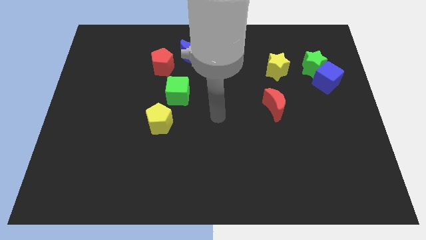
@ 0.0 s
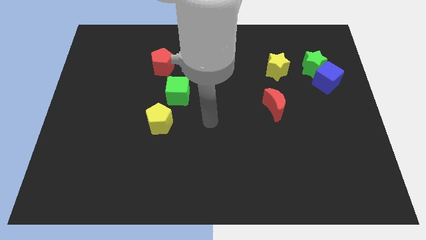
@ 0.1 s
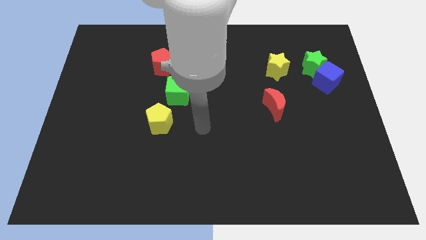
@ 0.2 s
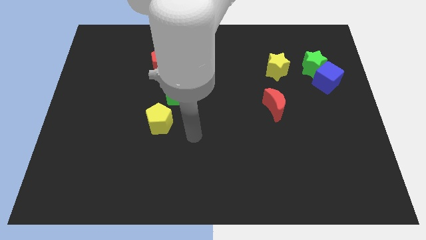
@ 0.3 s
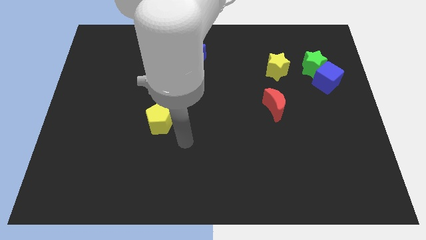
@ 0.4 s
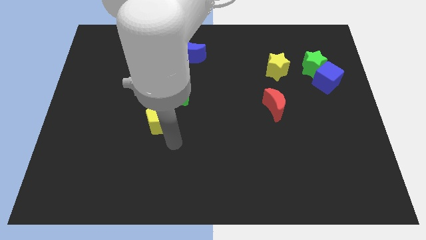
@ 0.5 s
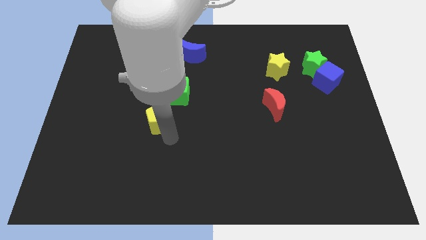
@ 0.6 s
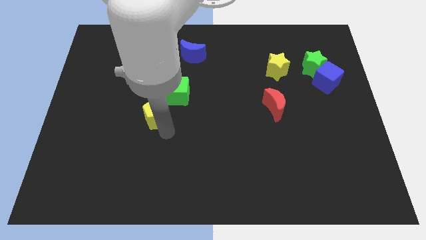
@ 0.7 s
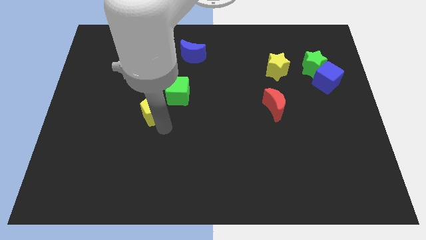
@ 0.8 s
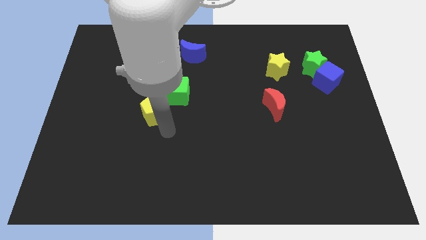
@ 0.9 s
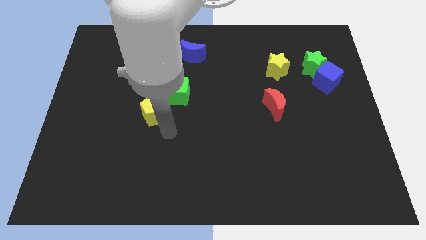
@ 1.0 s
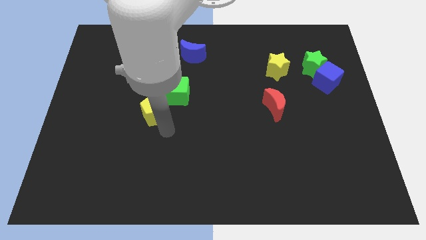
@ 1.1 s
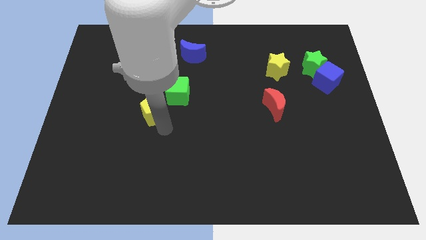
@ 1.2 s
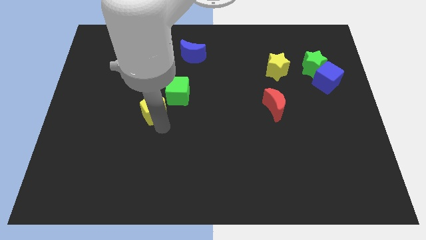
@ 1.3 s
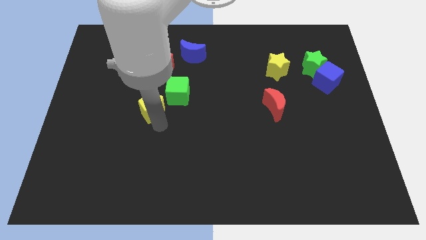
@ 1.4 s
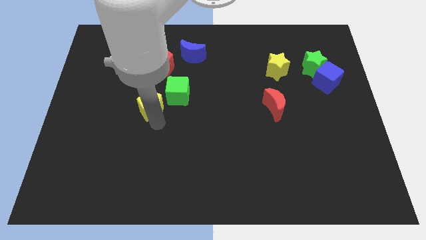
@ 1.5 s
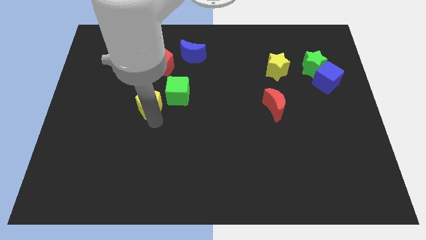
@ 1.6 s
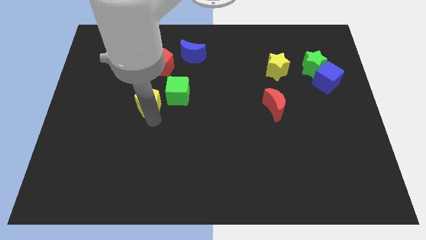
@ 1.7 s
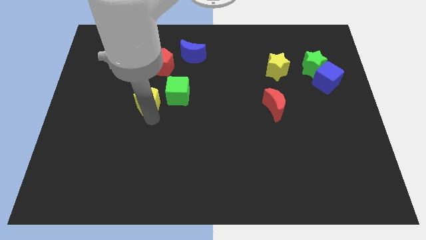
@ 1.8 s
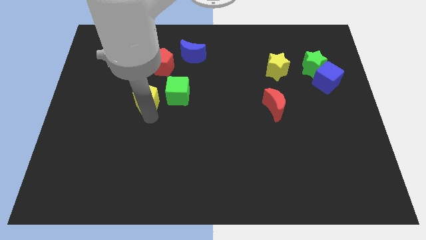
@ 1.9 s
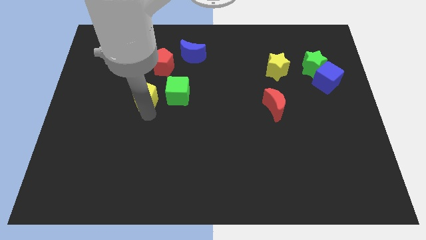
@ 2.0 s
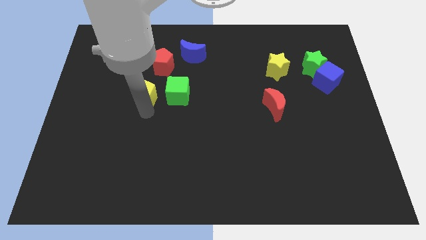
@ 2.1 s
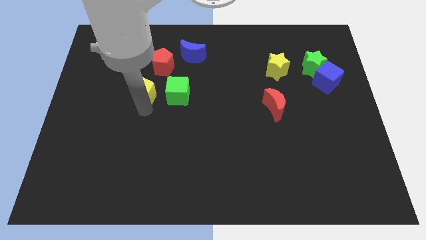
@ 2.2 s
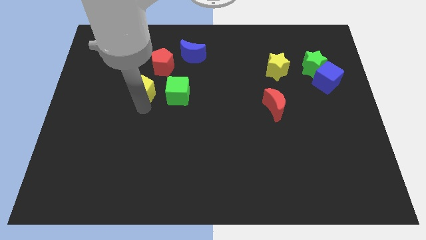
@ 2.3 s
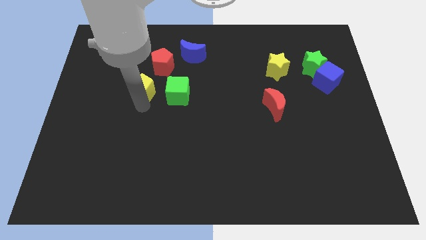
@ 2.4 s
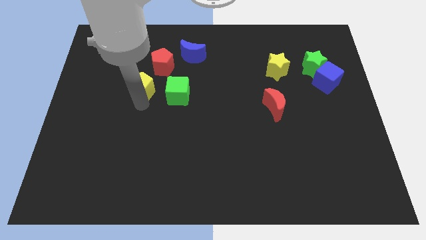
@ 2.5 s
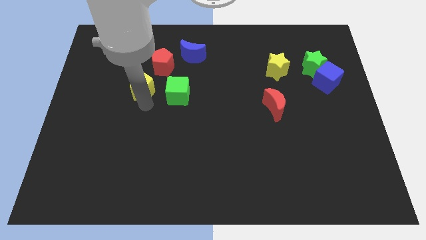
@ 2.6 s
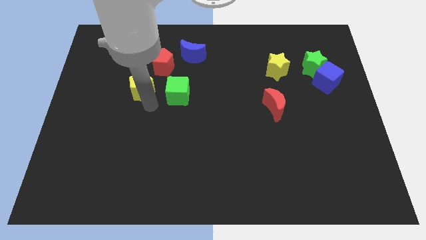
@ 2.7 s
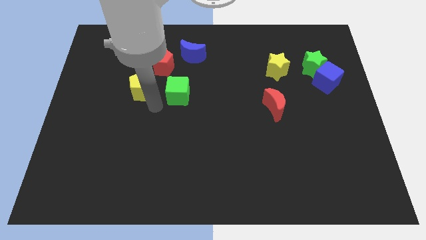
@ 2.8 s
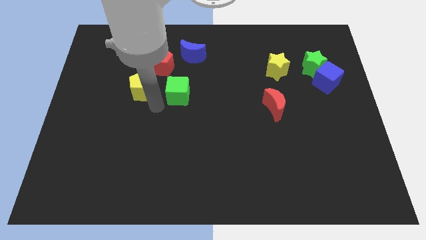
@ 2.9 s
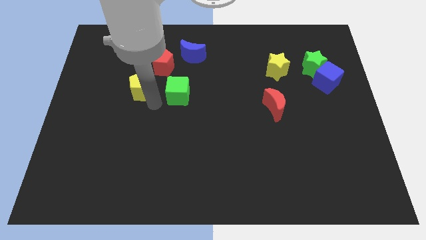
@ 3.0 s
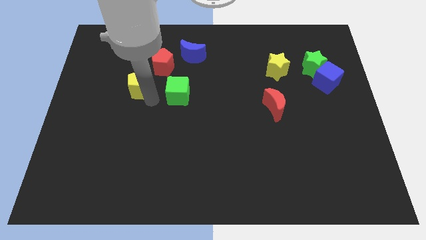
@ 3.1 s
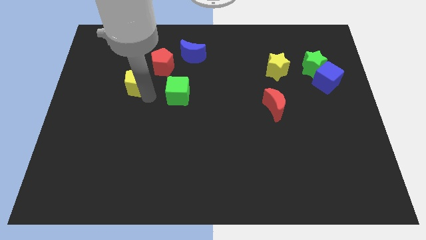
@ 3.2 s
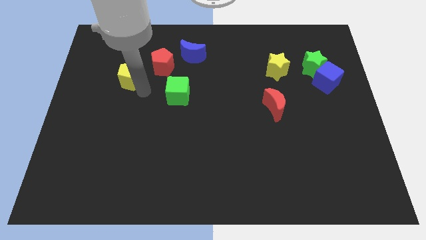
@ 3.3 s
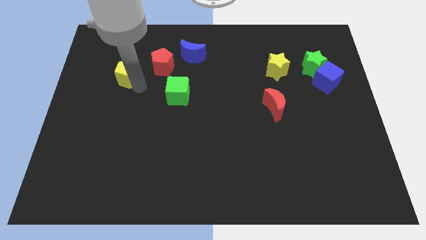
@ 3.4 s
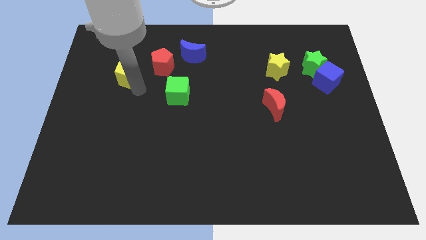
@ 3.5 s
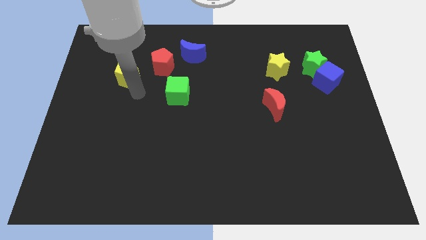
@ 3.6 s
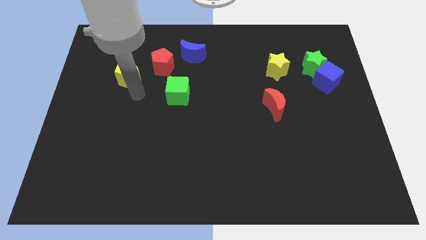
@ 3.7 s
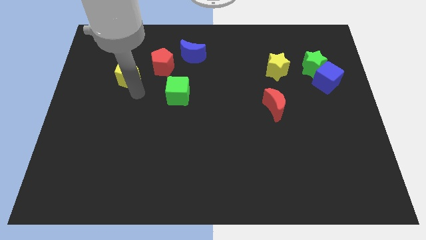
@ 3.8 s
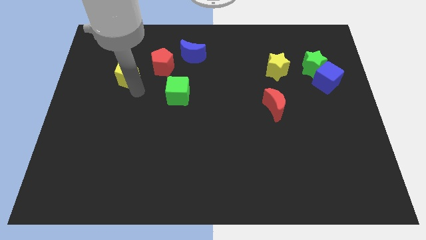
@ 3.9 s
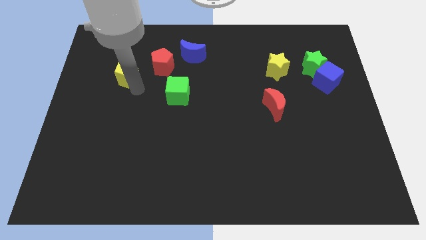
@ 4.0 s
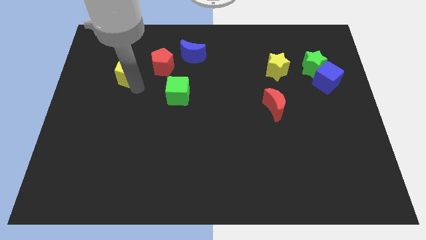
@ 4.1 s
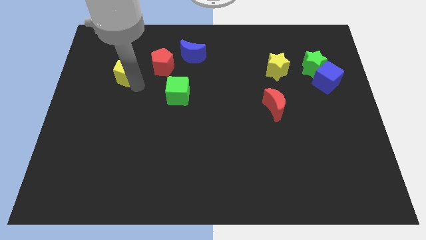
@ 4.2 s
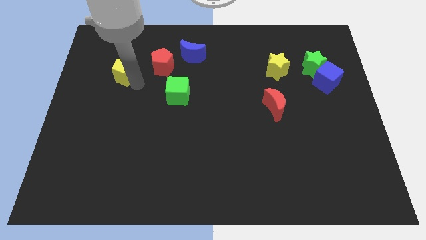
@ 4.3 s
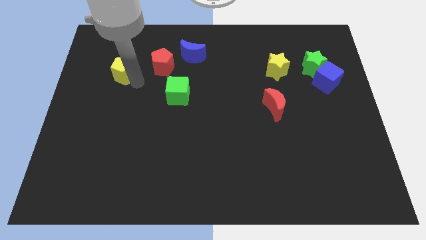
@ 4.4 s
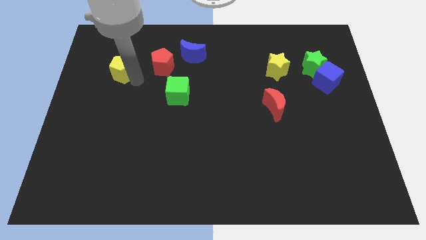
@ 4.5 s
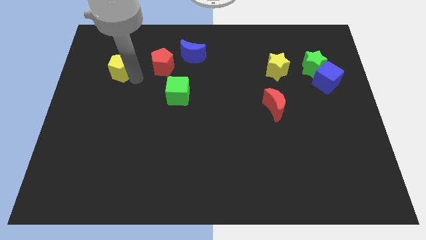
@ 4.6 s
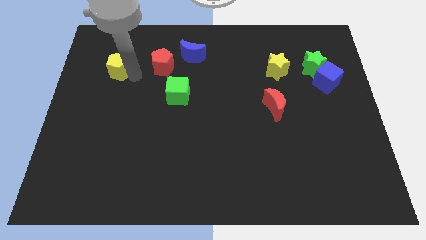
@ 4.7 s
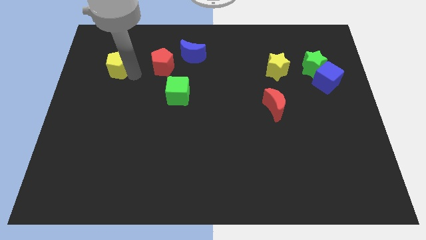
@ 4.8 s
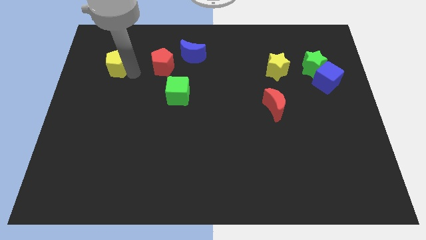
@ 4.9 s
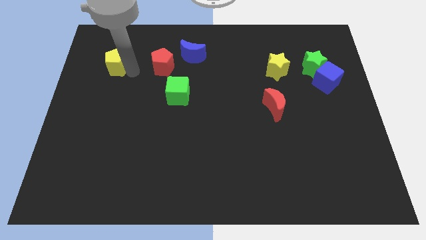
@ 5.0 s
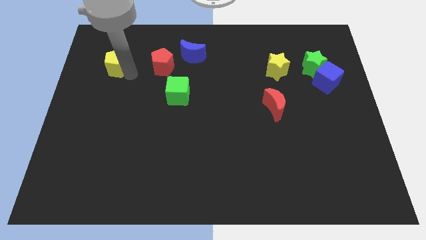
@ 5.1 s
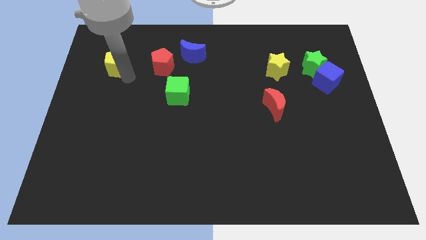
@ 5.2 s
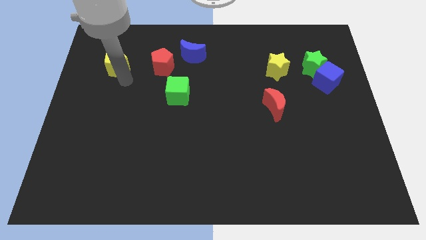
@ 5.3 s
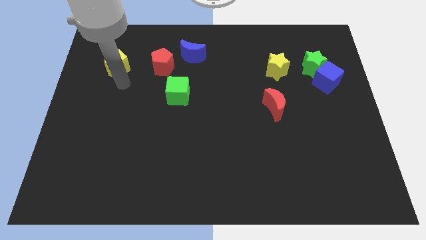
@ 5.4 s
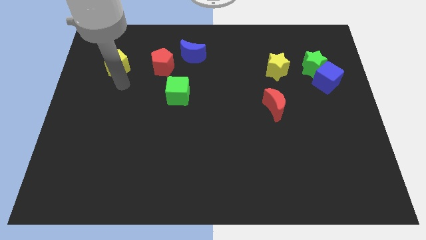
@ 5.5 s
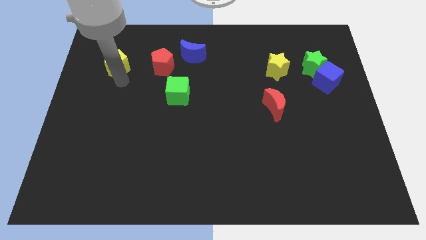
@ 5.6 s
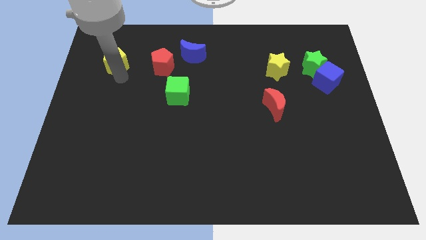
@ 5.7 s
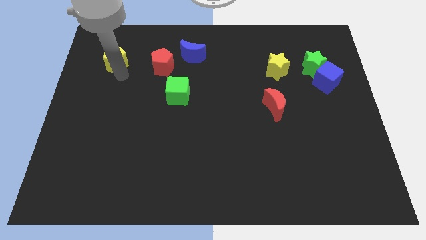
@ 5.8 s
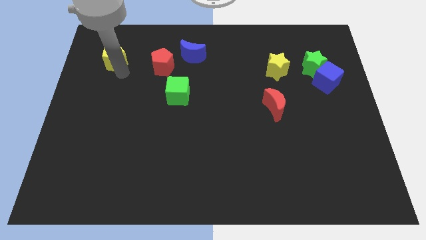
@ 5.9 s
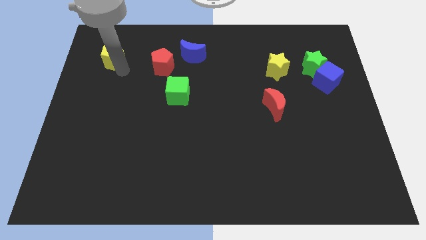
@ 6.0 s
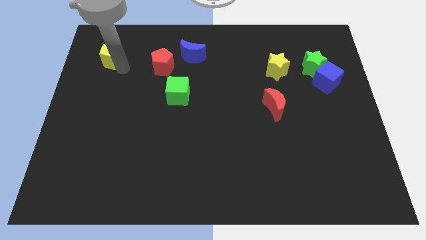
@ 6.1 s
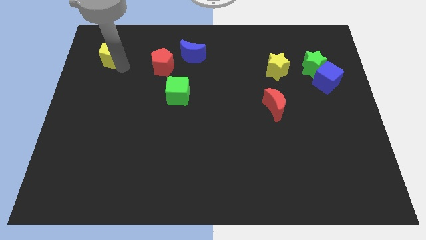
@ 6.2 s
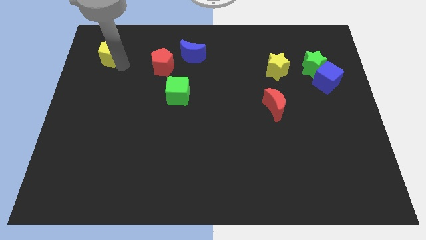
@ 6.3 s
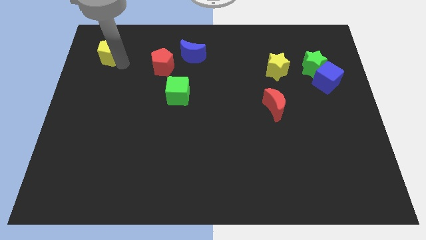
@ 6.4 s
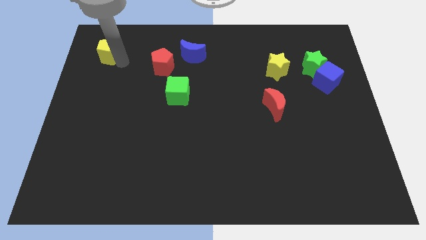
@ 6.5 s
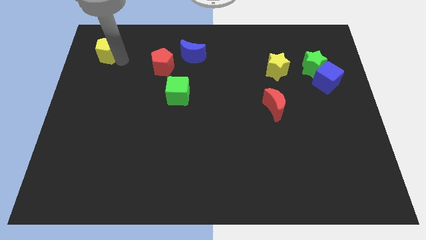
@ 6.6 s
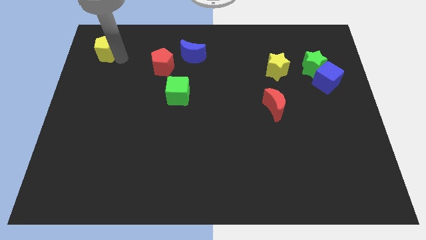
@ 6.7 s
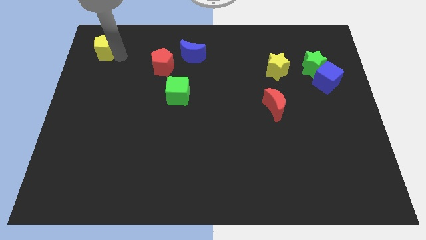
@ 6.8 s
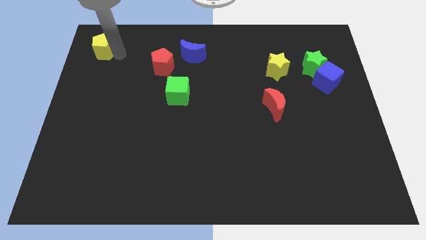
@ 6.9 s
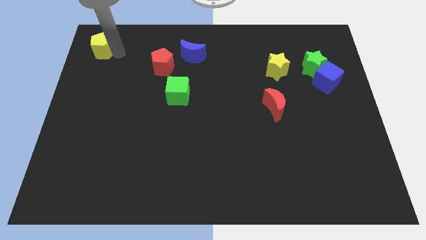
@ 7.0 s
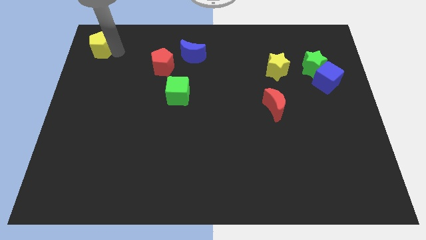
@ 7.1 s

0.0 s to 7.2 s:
put the yellow pentagon to the upper left corner
